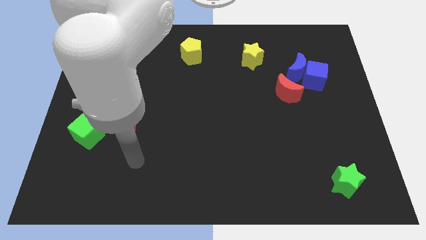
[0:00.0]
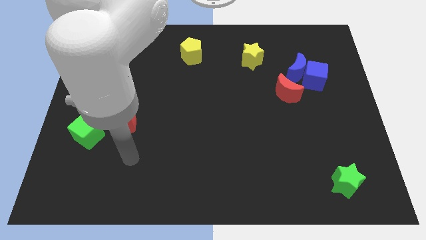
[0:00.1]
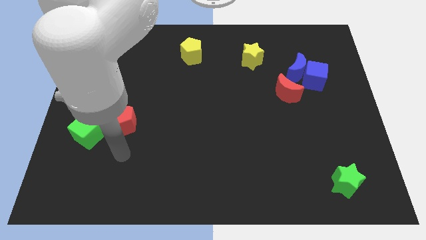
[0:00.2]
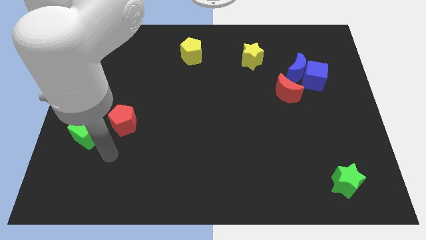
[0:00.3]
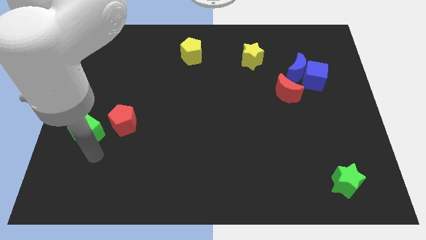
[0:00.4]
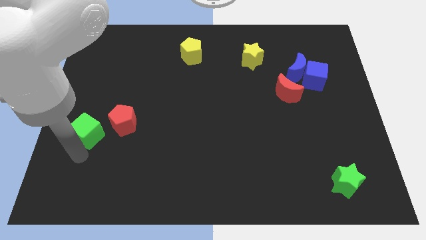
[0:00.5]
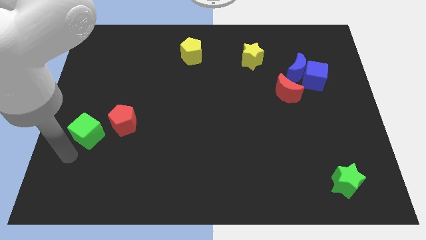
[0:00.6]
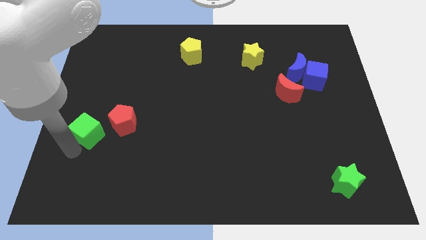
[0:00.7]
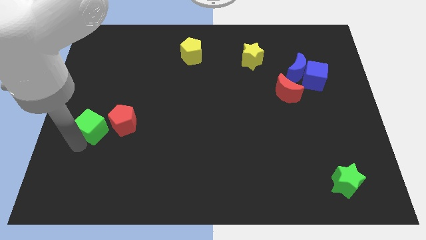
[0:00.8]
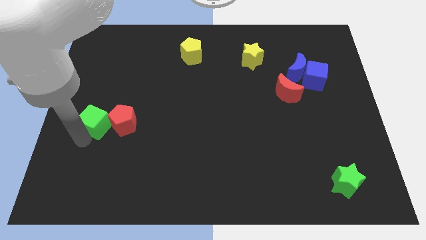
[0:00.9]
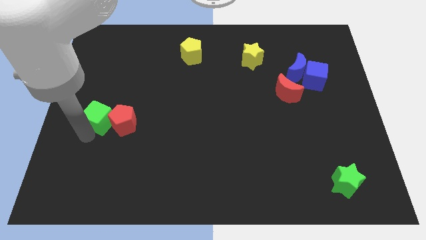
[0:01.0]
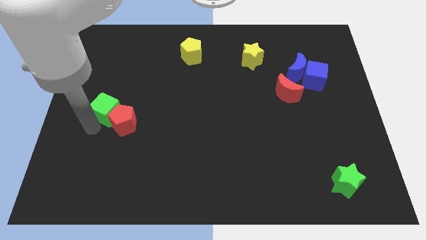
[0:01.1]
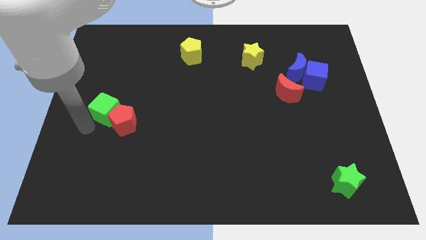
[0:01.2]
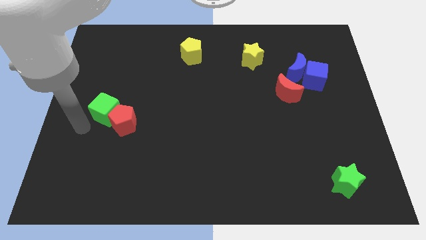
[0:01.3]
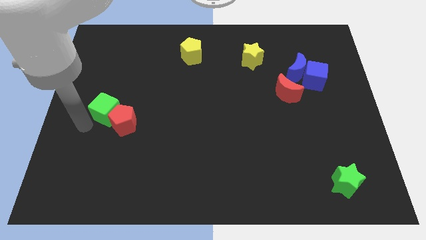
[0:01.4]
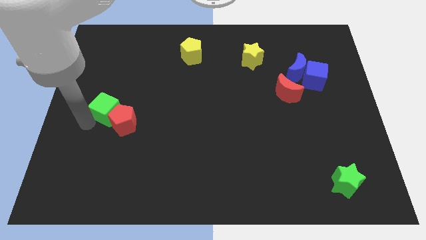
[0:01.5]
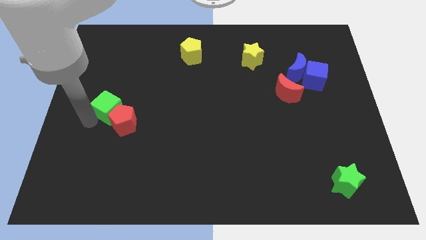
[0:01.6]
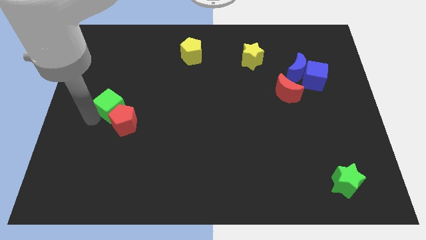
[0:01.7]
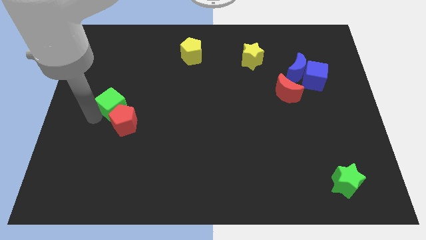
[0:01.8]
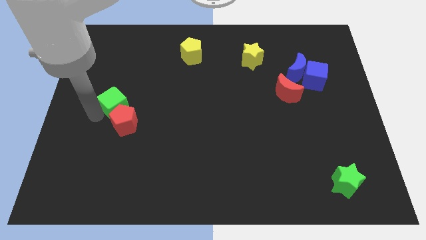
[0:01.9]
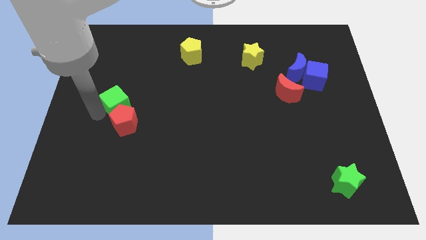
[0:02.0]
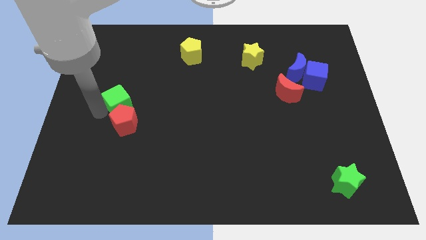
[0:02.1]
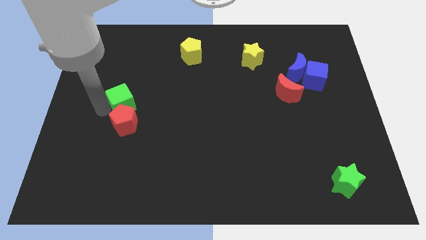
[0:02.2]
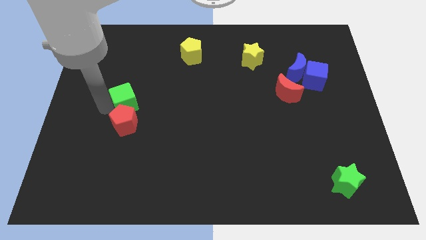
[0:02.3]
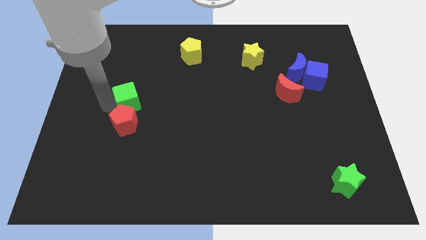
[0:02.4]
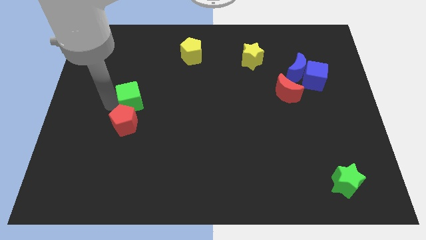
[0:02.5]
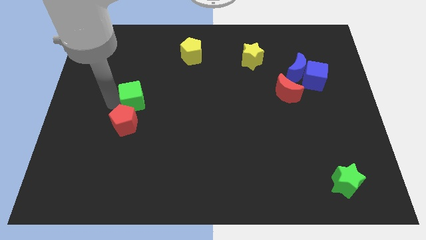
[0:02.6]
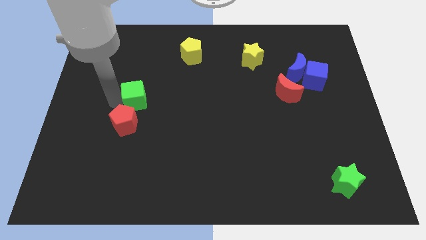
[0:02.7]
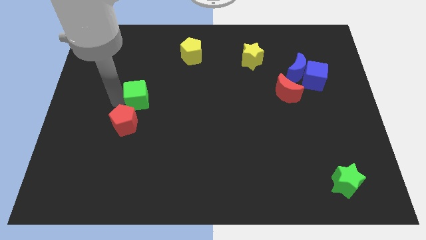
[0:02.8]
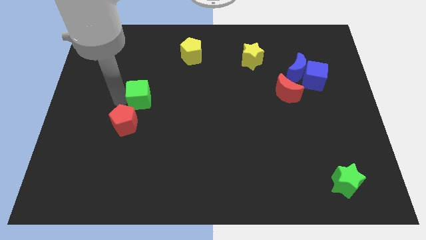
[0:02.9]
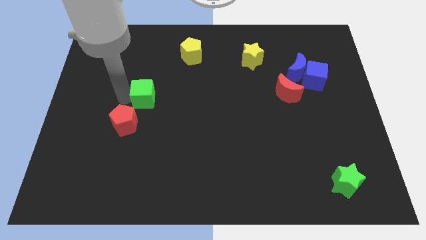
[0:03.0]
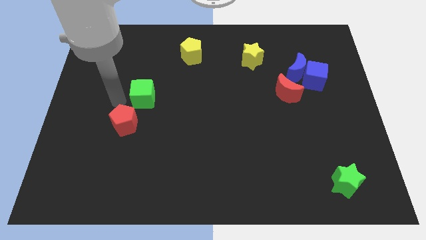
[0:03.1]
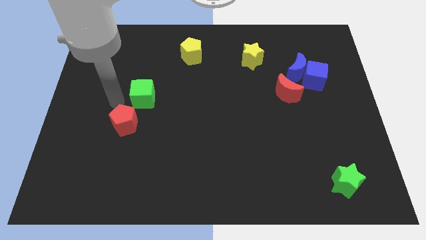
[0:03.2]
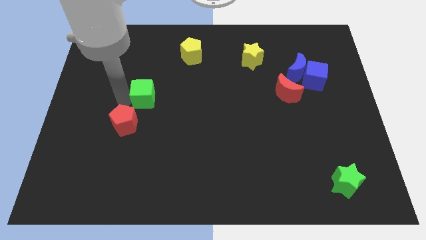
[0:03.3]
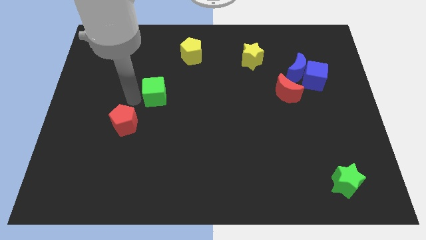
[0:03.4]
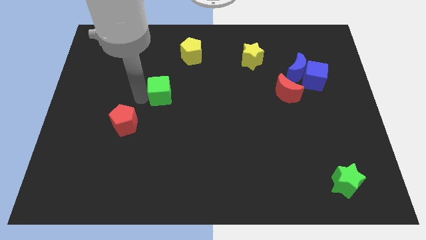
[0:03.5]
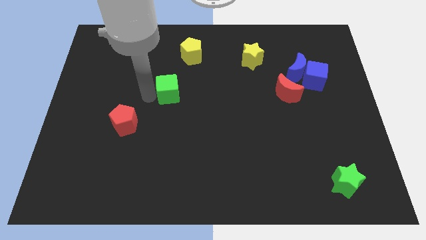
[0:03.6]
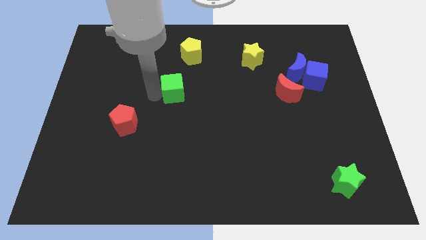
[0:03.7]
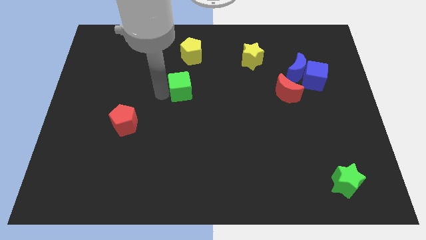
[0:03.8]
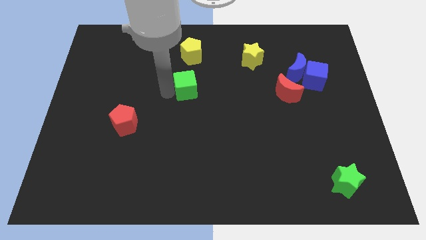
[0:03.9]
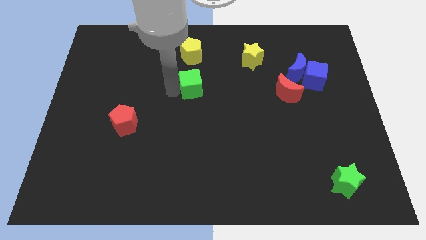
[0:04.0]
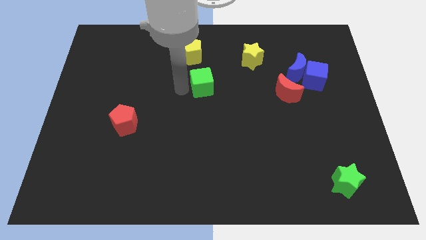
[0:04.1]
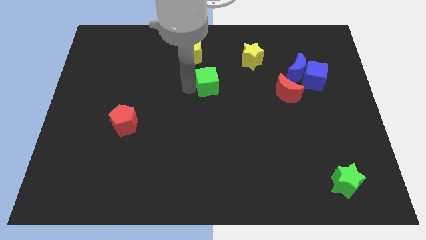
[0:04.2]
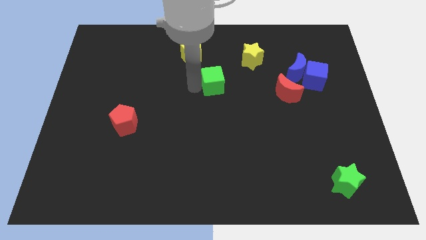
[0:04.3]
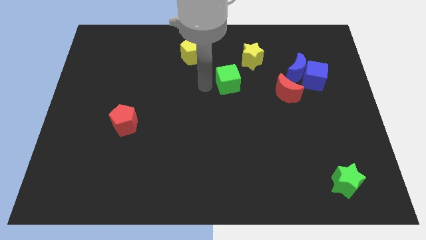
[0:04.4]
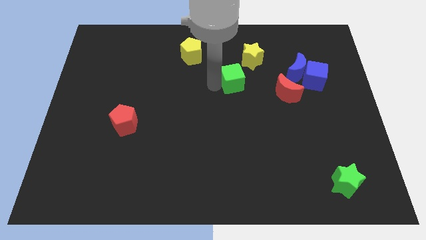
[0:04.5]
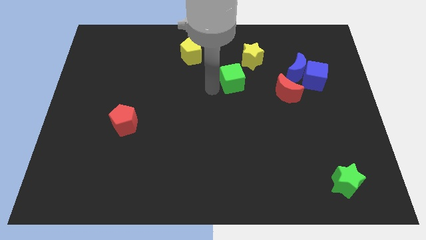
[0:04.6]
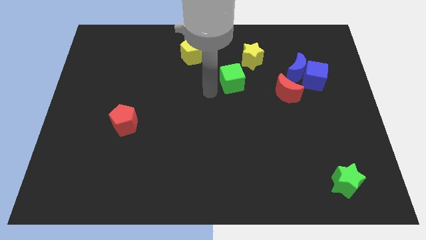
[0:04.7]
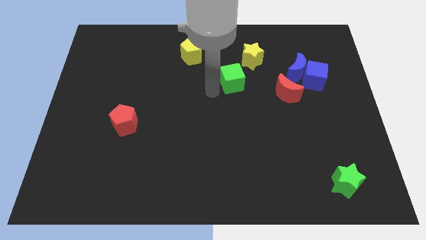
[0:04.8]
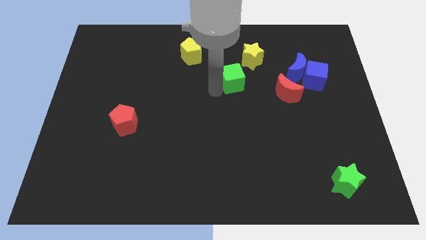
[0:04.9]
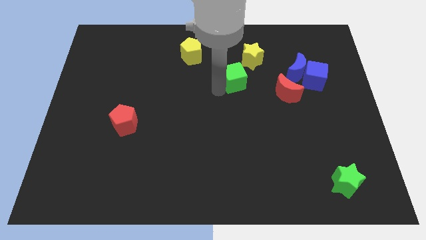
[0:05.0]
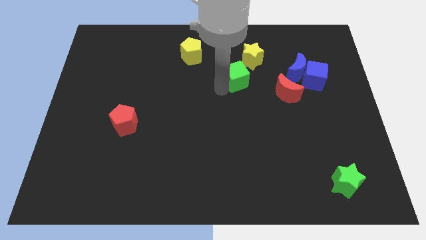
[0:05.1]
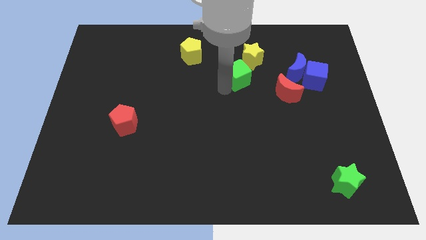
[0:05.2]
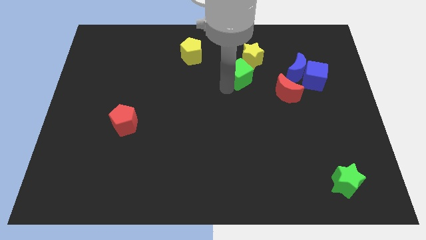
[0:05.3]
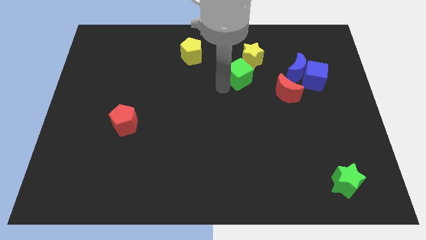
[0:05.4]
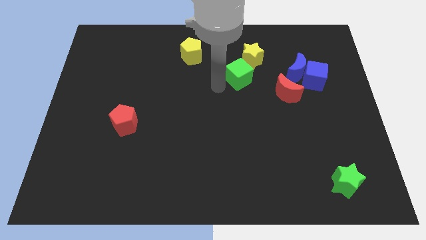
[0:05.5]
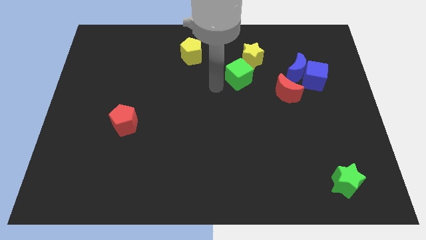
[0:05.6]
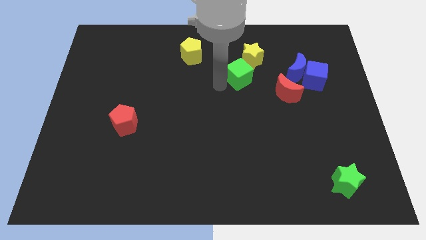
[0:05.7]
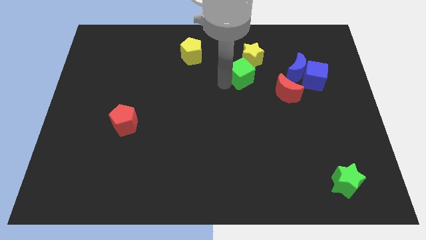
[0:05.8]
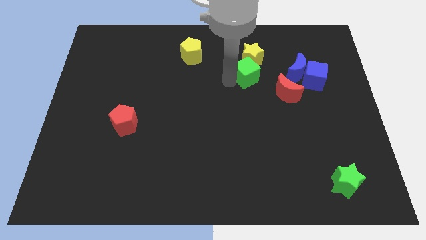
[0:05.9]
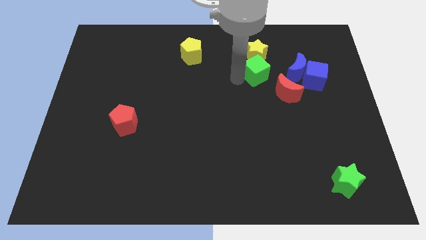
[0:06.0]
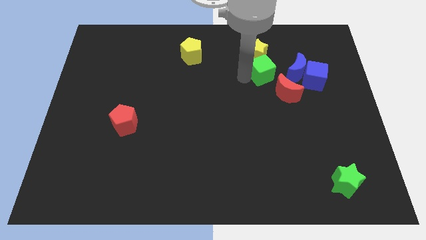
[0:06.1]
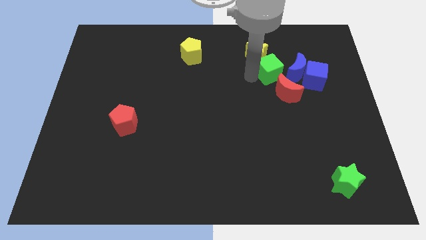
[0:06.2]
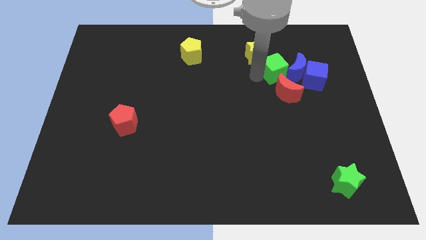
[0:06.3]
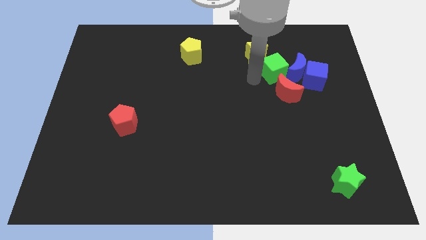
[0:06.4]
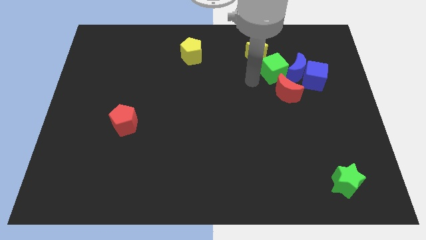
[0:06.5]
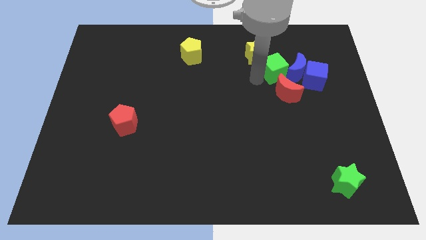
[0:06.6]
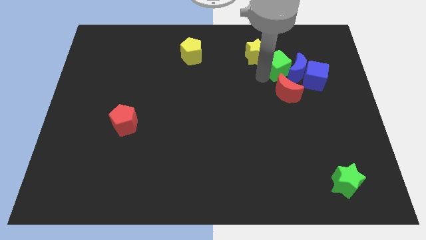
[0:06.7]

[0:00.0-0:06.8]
slide the green cube to the top left side of the blue cube

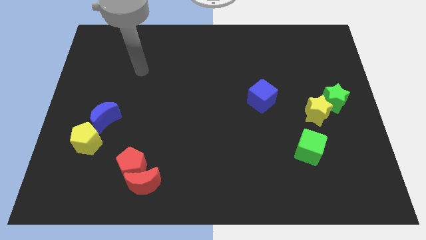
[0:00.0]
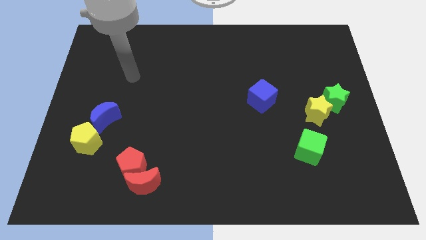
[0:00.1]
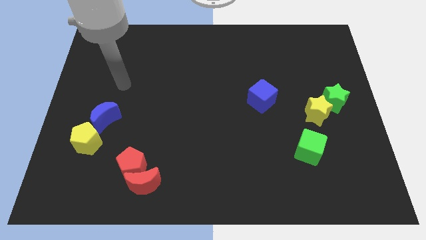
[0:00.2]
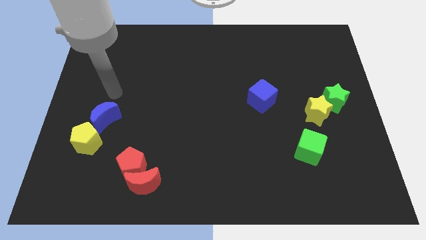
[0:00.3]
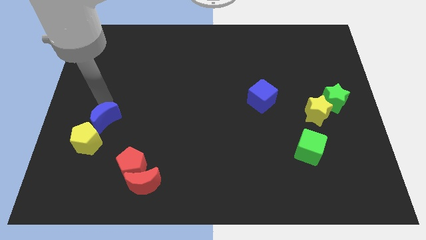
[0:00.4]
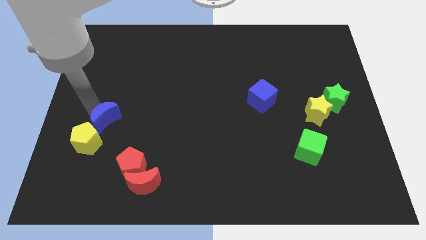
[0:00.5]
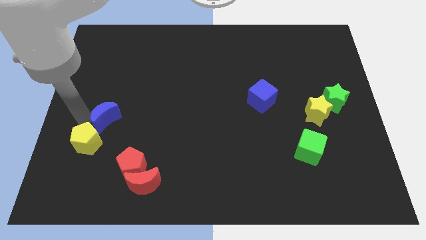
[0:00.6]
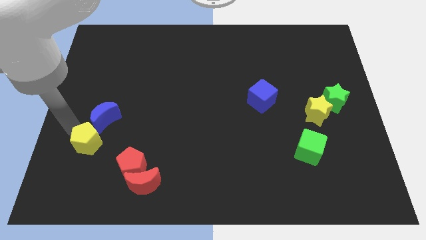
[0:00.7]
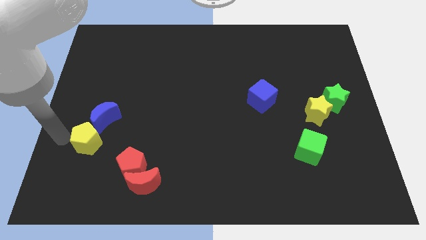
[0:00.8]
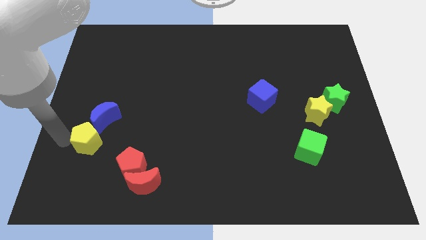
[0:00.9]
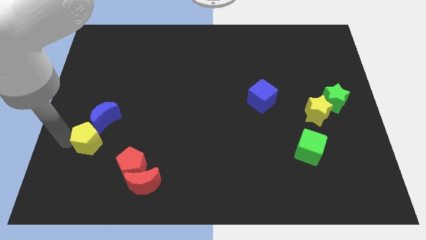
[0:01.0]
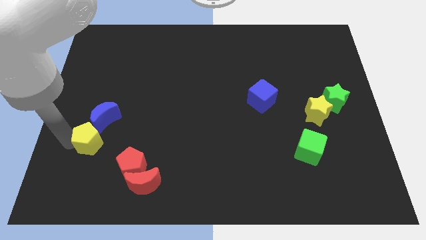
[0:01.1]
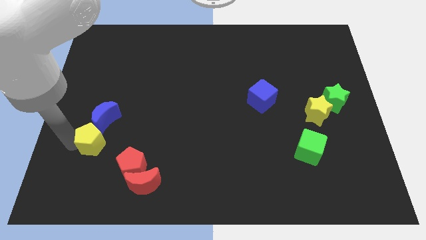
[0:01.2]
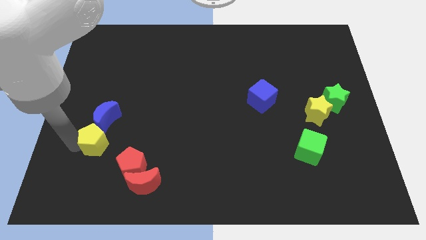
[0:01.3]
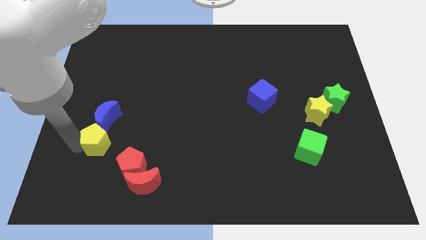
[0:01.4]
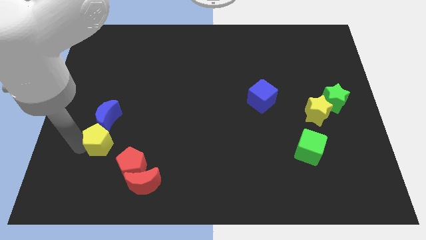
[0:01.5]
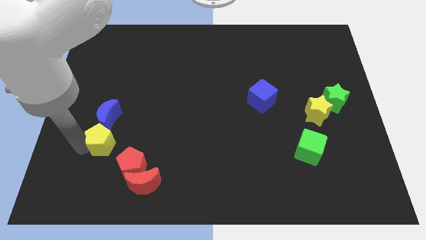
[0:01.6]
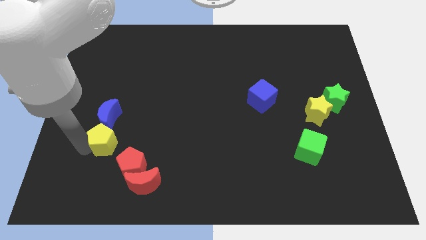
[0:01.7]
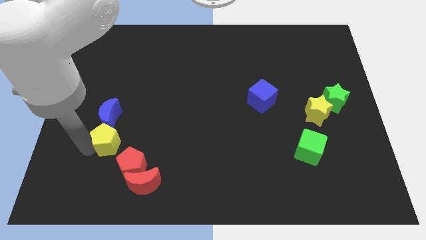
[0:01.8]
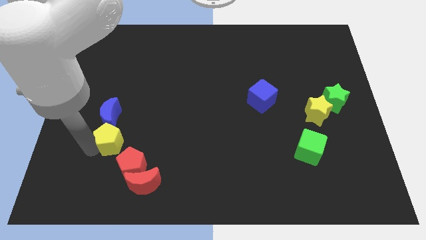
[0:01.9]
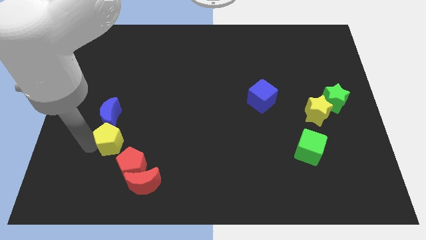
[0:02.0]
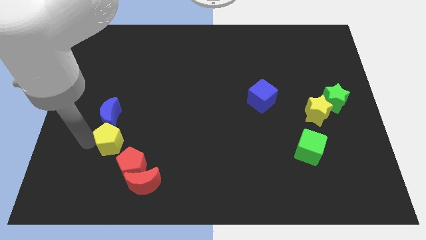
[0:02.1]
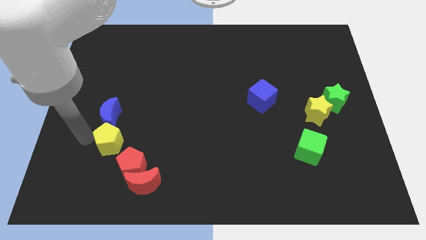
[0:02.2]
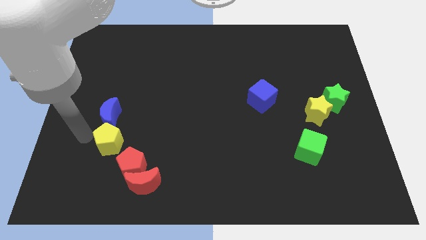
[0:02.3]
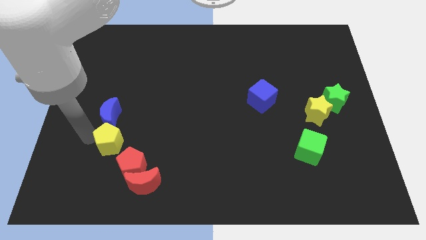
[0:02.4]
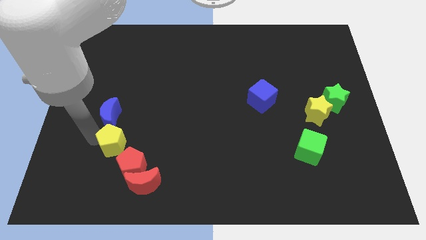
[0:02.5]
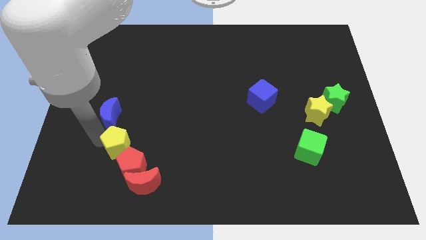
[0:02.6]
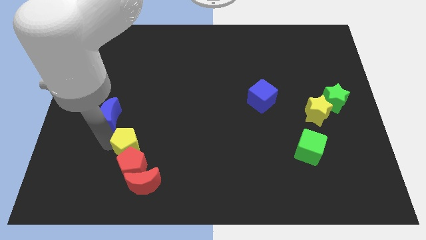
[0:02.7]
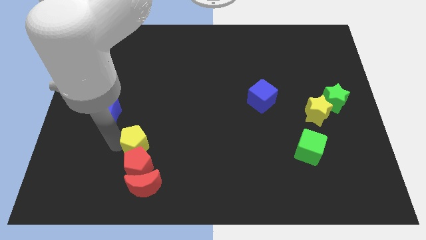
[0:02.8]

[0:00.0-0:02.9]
slide the yellow pentagon diagonally up and to the right of the red pentagon
